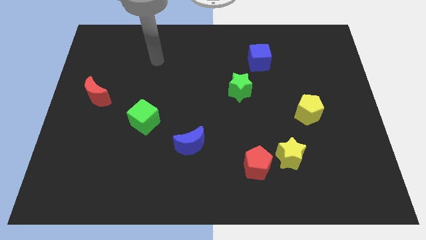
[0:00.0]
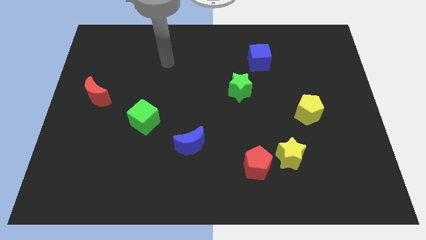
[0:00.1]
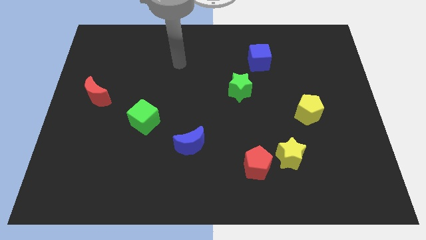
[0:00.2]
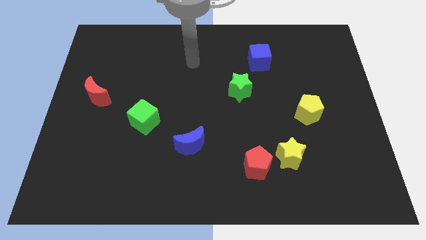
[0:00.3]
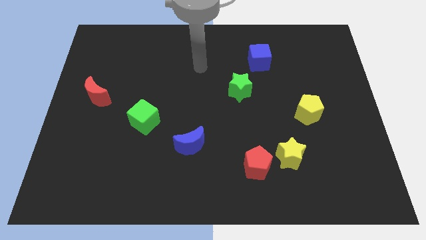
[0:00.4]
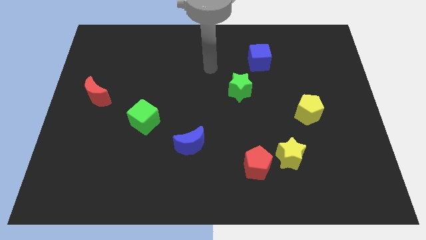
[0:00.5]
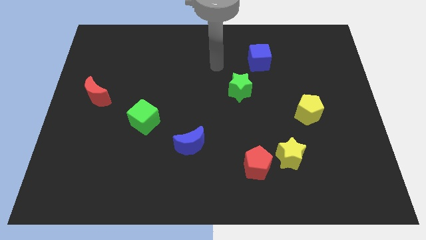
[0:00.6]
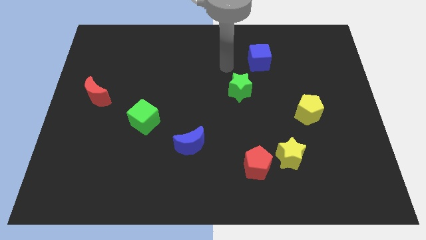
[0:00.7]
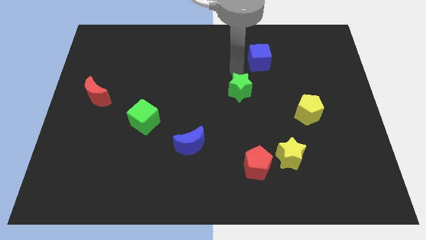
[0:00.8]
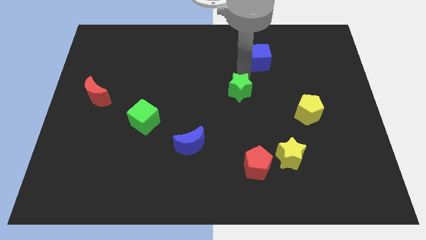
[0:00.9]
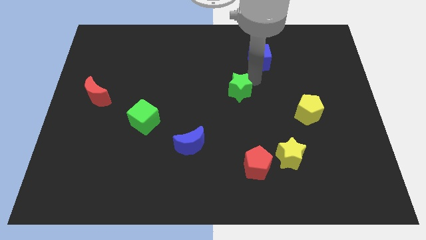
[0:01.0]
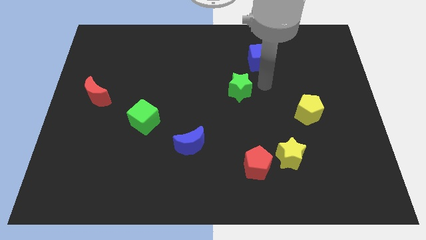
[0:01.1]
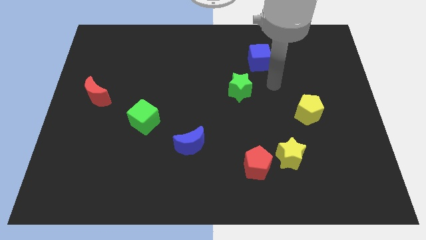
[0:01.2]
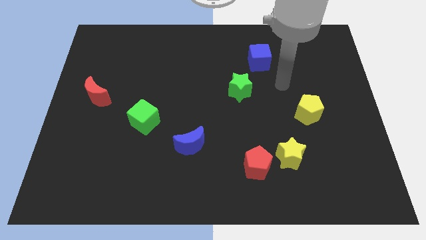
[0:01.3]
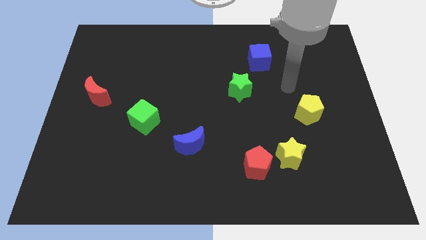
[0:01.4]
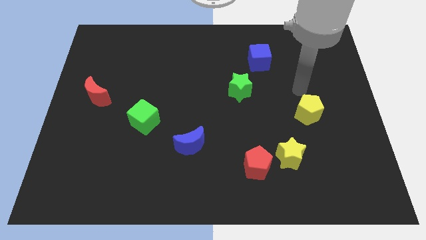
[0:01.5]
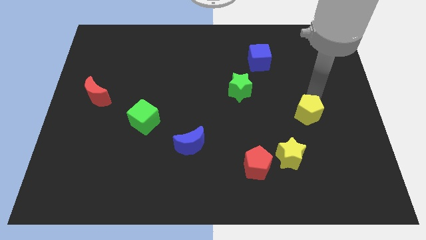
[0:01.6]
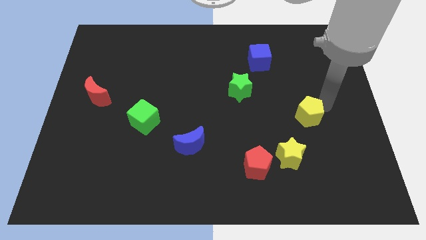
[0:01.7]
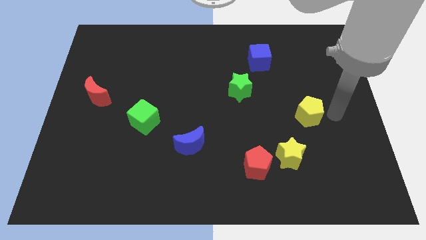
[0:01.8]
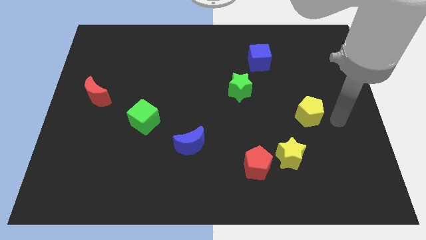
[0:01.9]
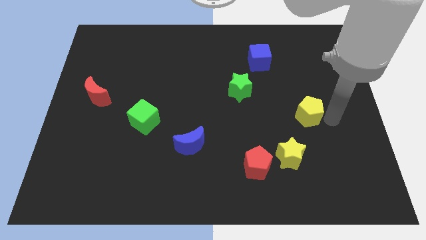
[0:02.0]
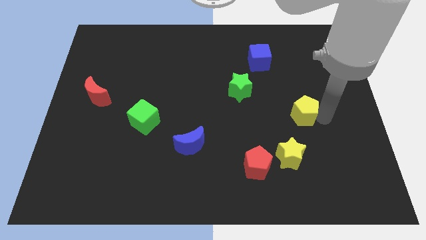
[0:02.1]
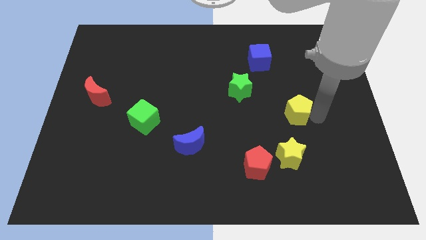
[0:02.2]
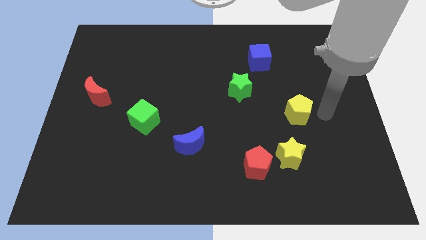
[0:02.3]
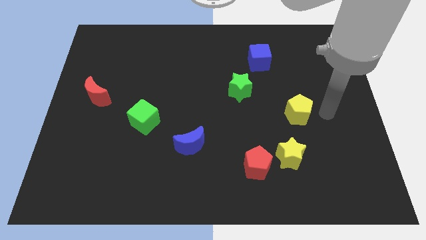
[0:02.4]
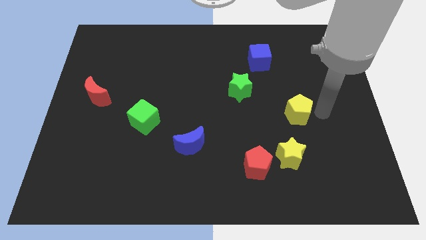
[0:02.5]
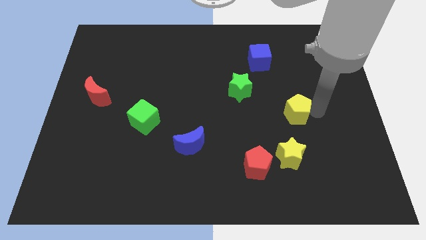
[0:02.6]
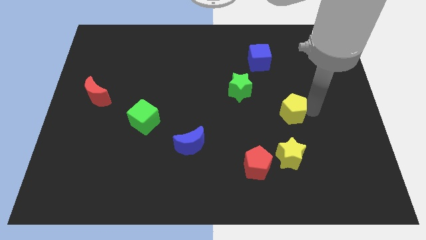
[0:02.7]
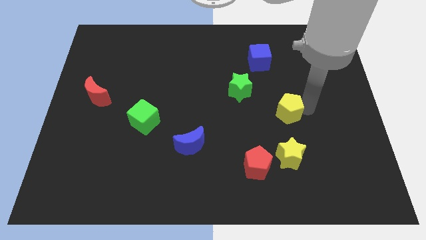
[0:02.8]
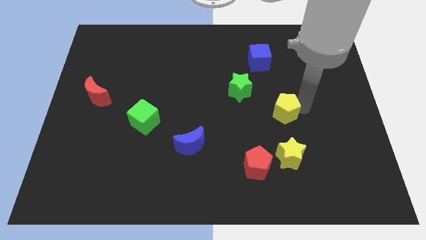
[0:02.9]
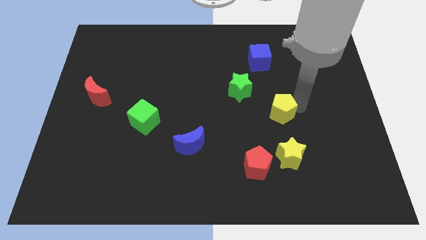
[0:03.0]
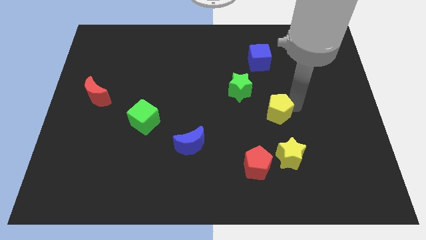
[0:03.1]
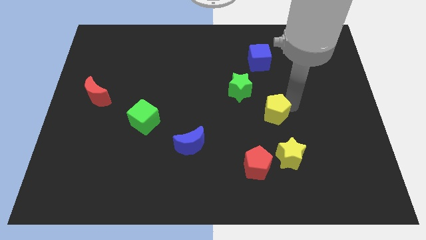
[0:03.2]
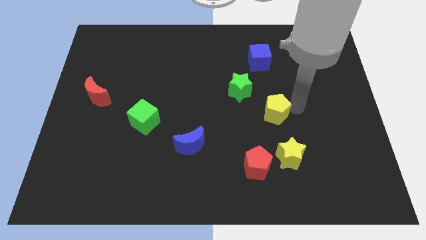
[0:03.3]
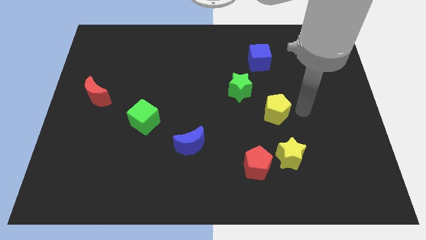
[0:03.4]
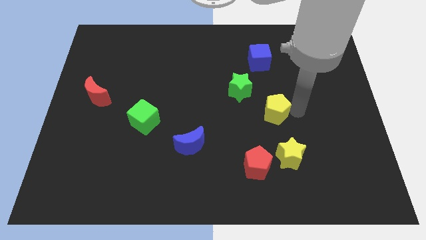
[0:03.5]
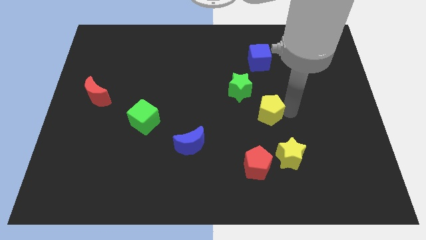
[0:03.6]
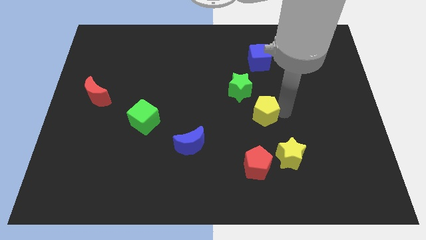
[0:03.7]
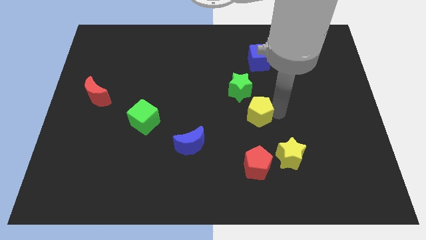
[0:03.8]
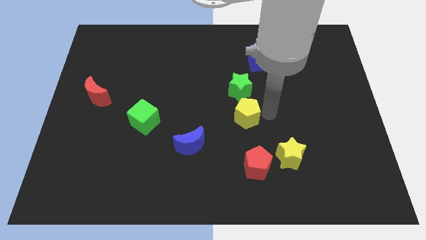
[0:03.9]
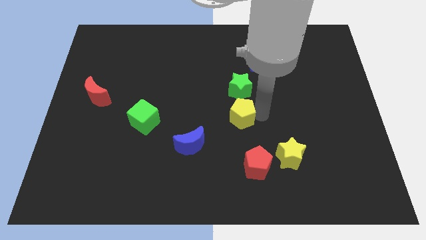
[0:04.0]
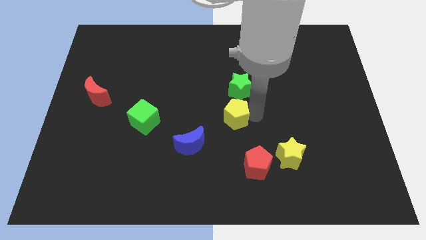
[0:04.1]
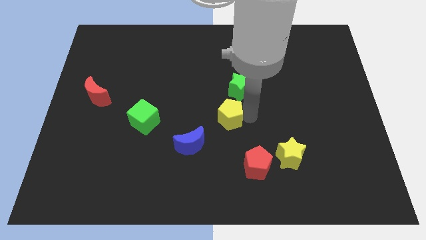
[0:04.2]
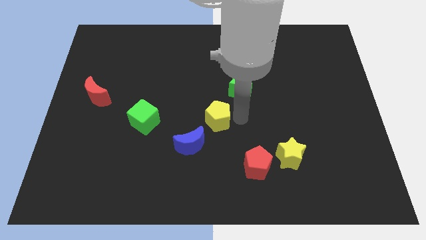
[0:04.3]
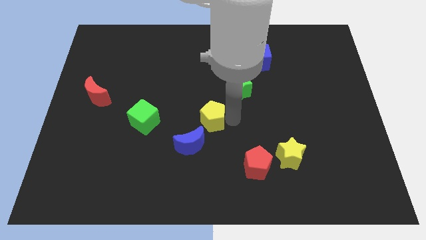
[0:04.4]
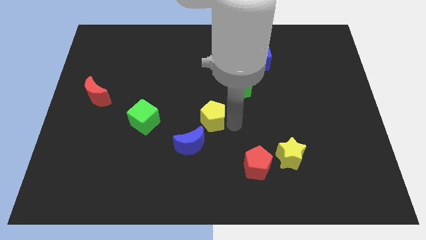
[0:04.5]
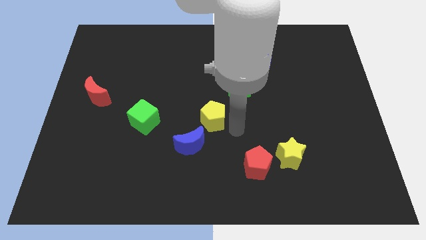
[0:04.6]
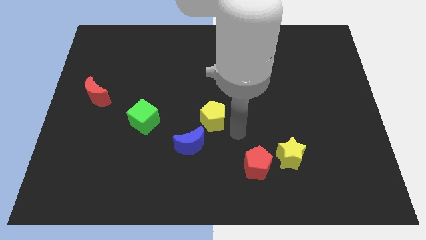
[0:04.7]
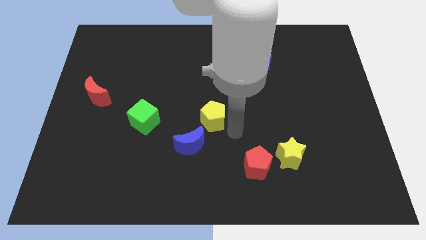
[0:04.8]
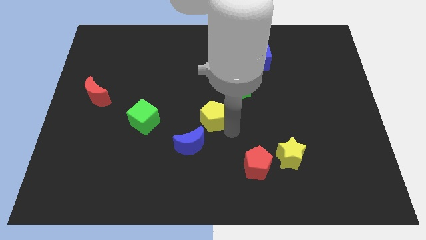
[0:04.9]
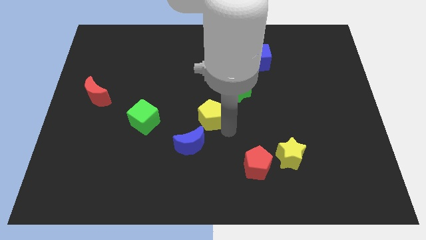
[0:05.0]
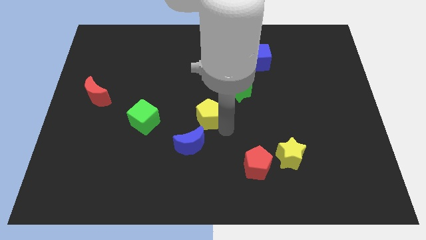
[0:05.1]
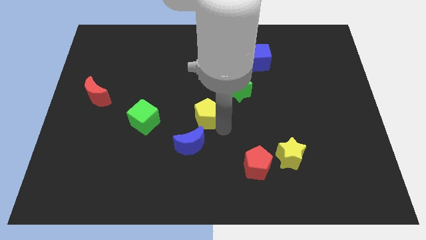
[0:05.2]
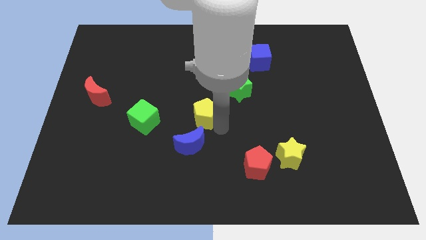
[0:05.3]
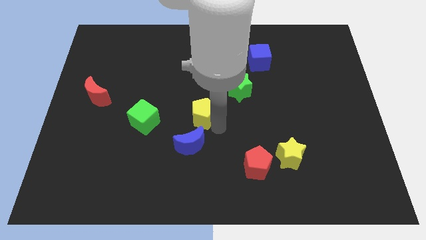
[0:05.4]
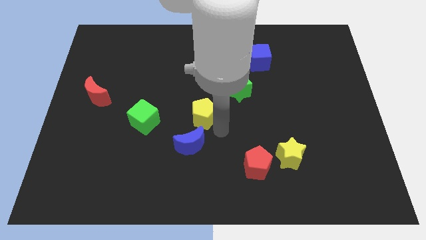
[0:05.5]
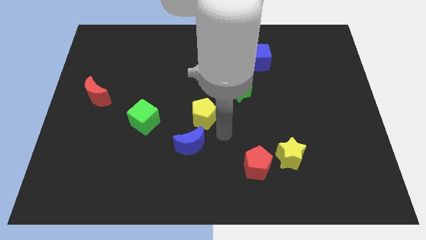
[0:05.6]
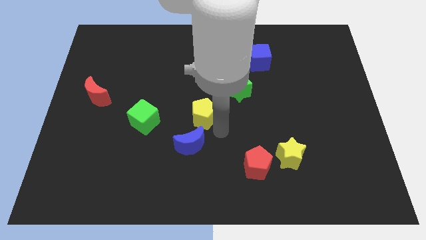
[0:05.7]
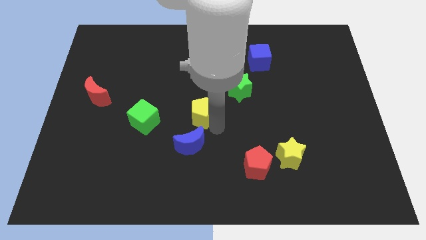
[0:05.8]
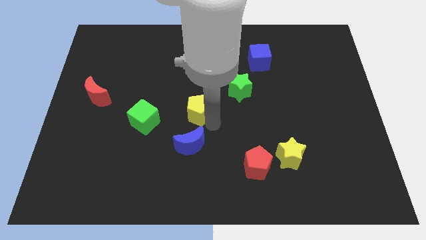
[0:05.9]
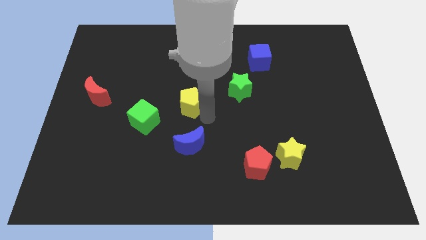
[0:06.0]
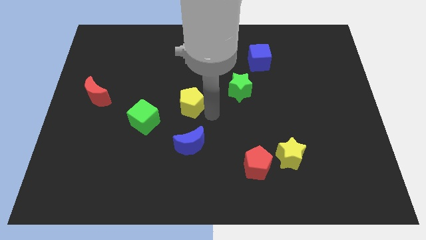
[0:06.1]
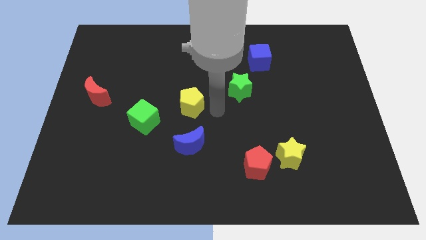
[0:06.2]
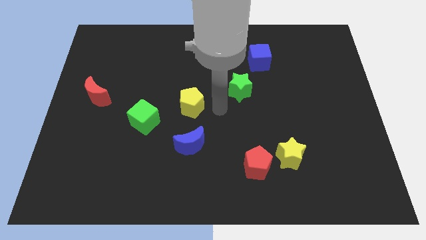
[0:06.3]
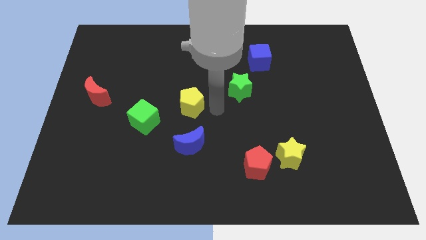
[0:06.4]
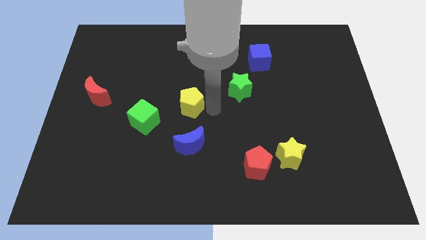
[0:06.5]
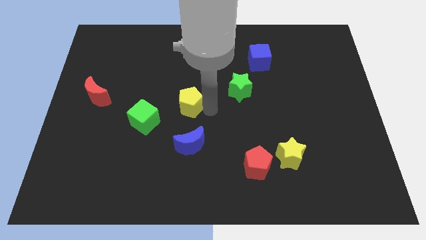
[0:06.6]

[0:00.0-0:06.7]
slide the yellow pentagon to the top right side of the green cube
